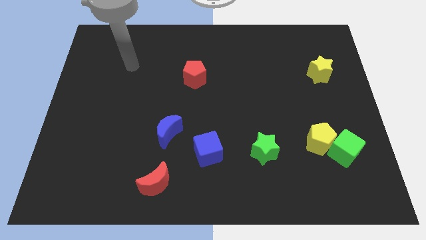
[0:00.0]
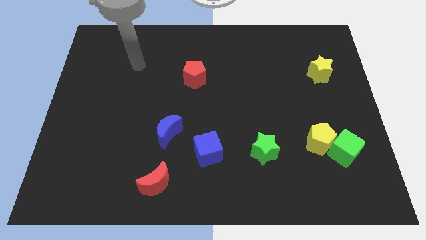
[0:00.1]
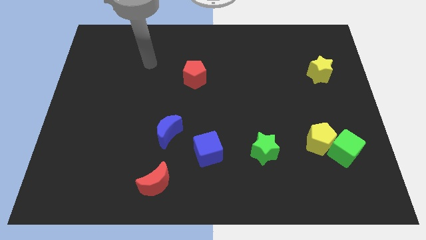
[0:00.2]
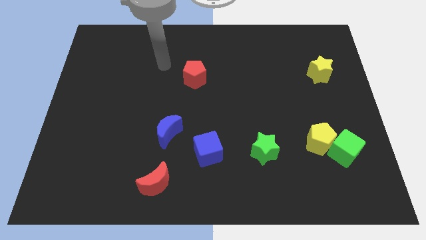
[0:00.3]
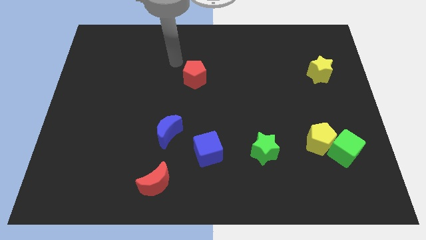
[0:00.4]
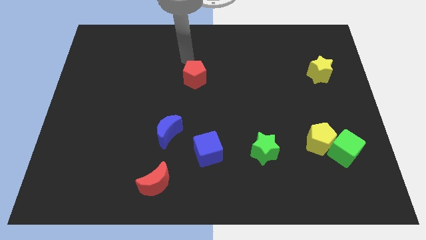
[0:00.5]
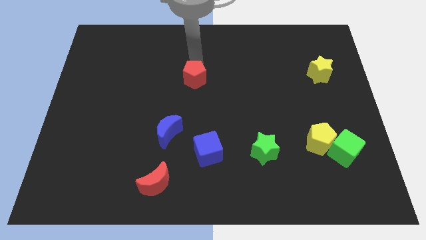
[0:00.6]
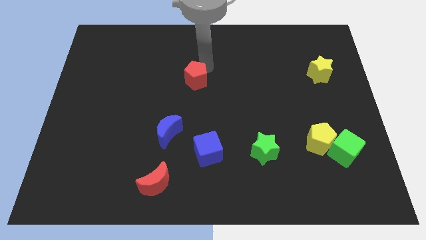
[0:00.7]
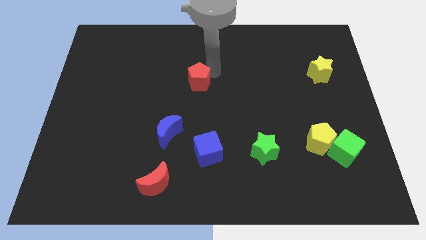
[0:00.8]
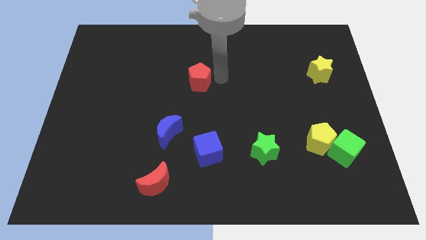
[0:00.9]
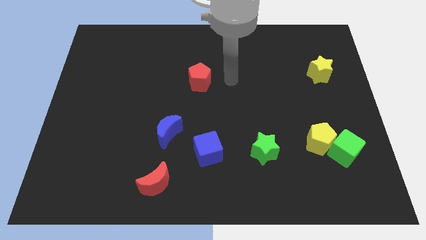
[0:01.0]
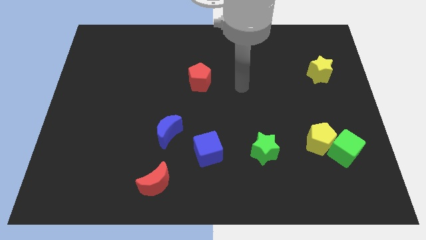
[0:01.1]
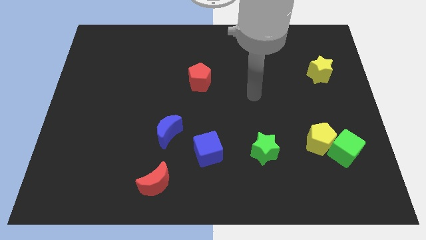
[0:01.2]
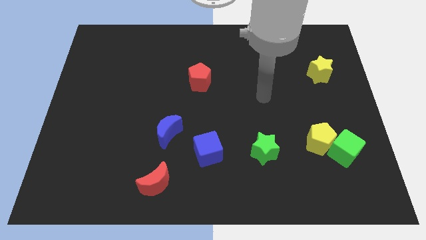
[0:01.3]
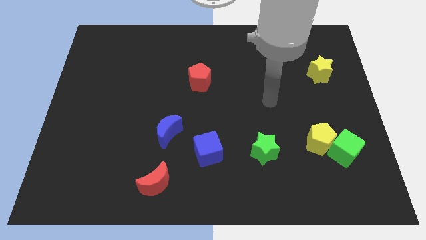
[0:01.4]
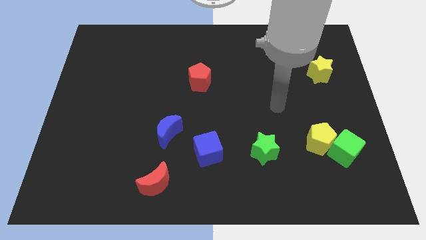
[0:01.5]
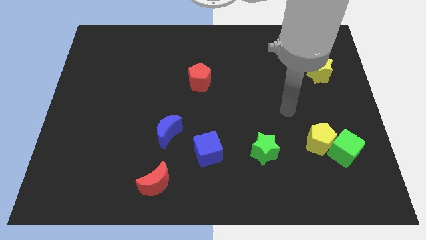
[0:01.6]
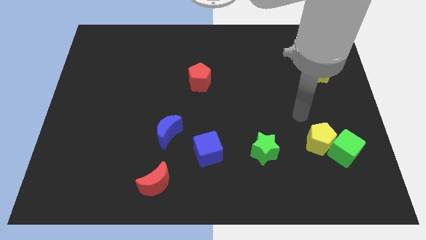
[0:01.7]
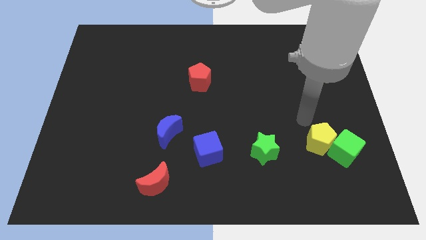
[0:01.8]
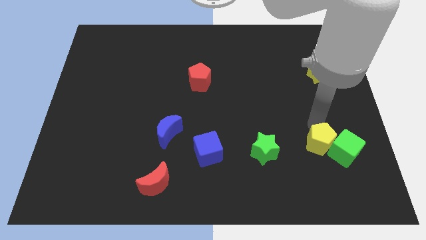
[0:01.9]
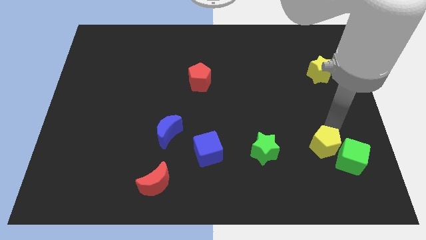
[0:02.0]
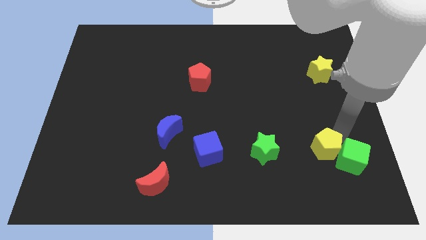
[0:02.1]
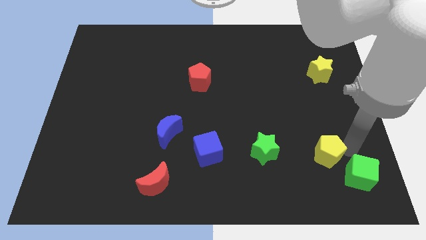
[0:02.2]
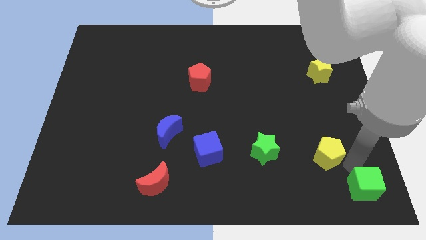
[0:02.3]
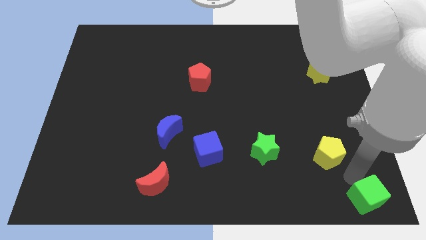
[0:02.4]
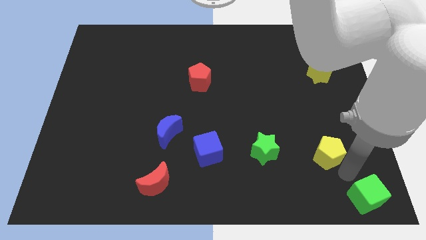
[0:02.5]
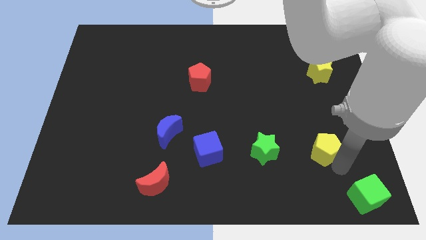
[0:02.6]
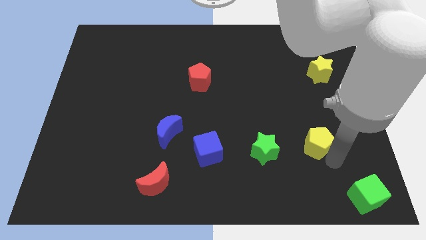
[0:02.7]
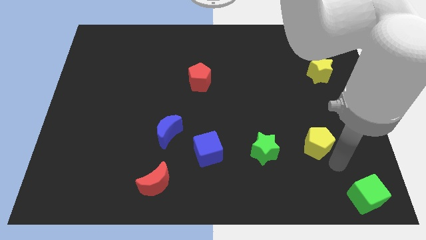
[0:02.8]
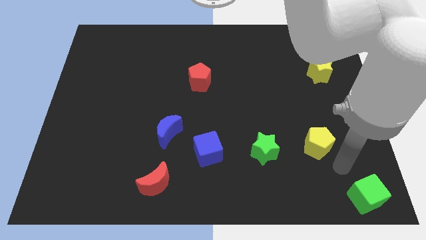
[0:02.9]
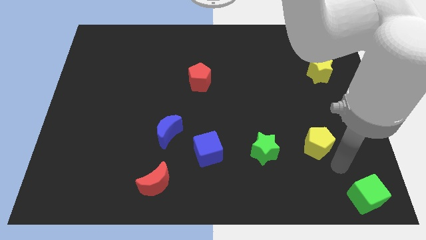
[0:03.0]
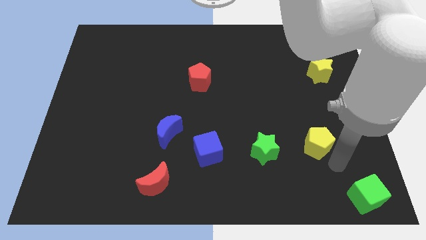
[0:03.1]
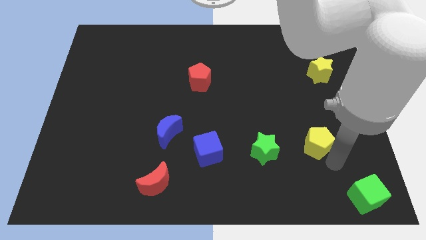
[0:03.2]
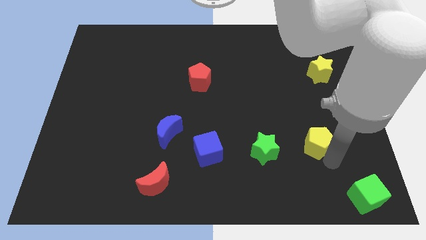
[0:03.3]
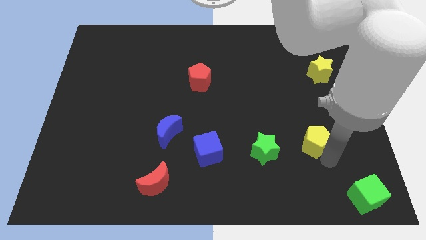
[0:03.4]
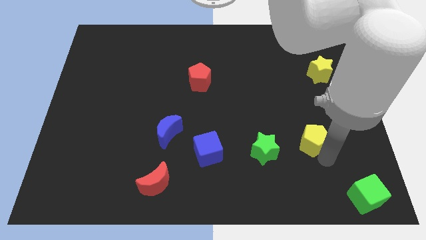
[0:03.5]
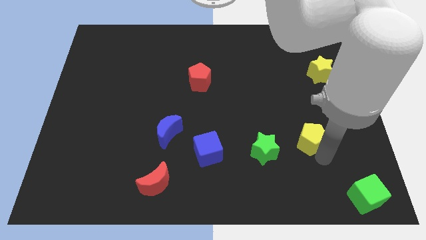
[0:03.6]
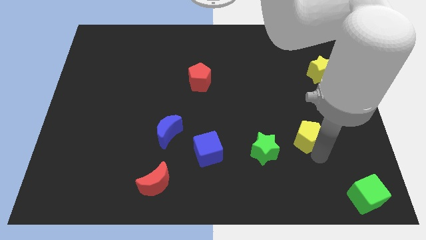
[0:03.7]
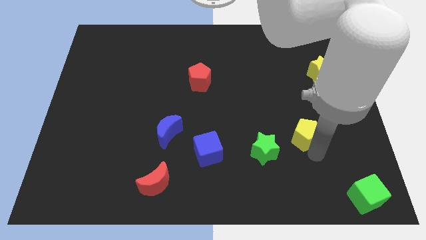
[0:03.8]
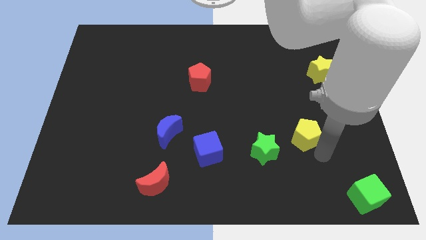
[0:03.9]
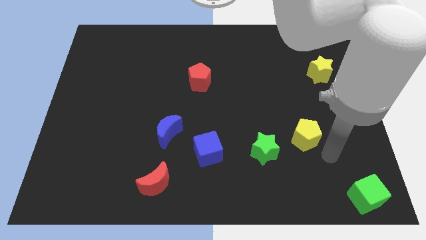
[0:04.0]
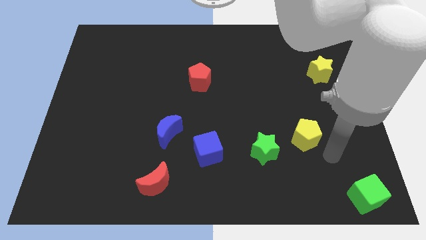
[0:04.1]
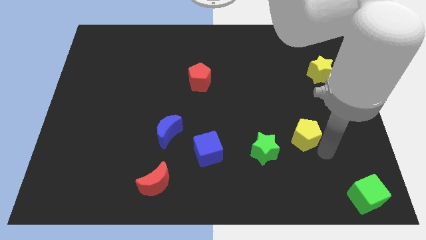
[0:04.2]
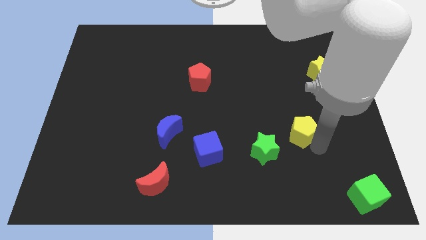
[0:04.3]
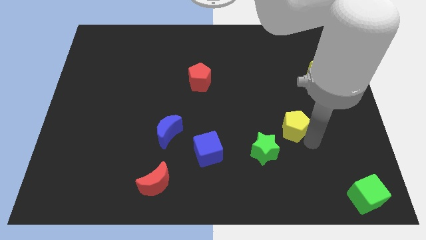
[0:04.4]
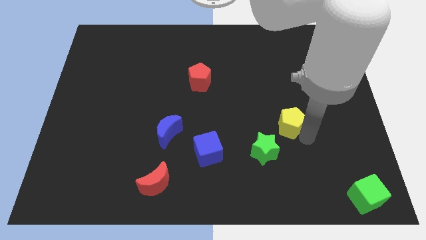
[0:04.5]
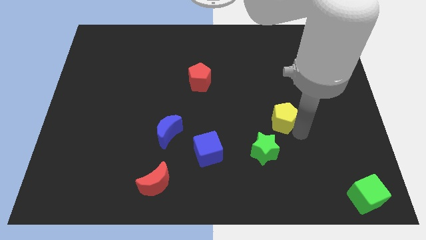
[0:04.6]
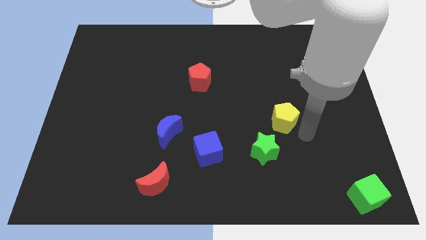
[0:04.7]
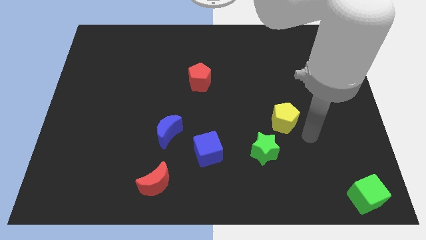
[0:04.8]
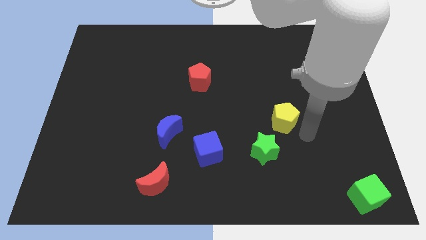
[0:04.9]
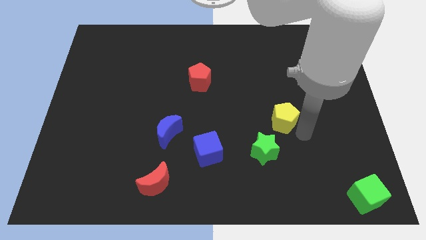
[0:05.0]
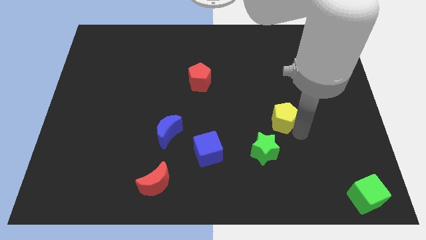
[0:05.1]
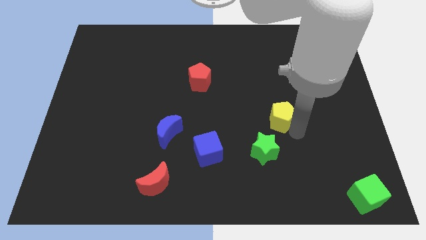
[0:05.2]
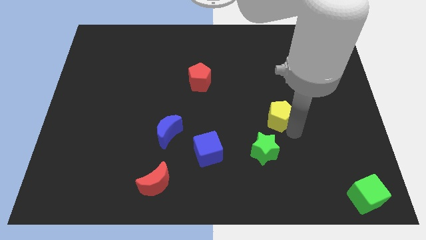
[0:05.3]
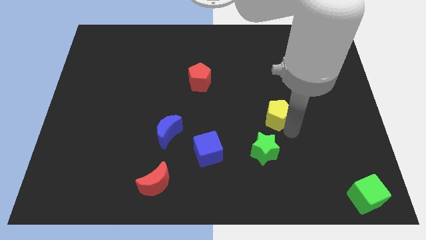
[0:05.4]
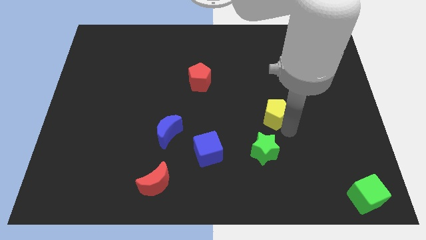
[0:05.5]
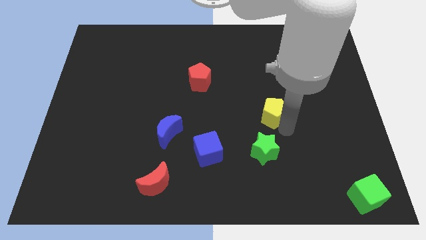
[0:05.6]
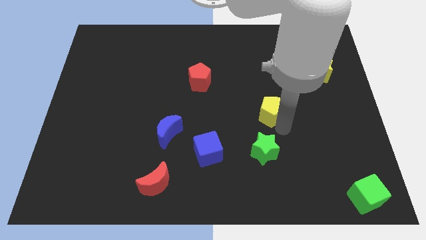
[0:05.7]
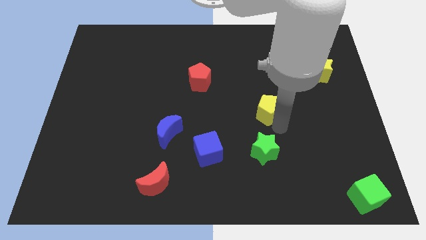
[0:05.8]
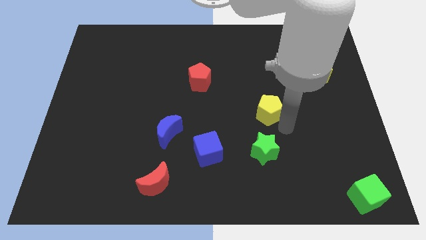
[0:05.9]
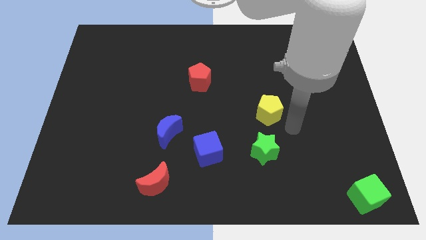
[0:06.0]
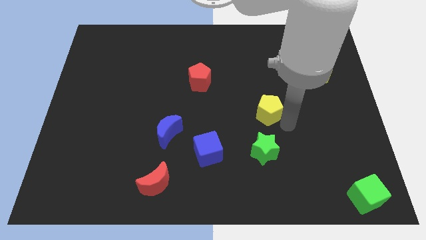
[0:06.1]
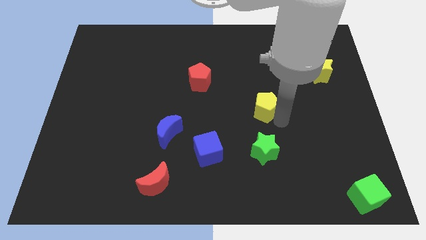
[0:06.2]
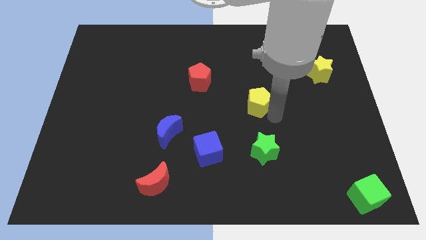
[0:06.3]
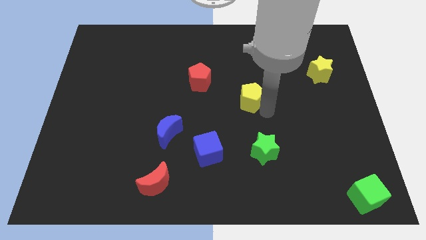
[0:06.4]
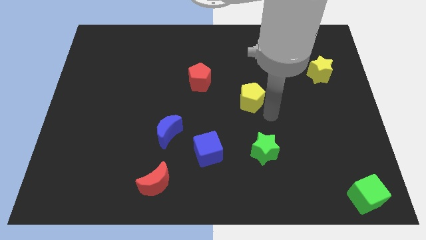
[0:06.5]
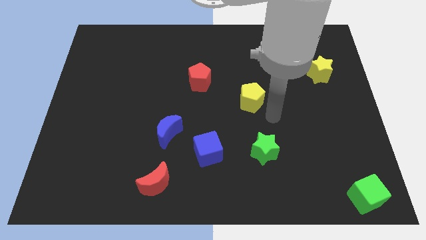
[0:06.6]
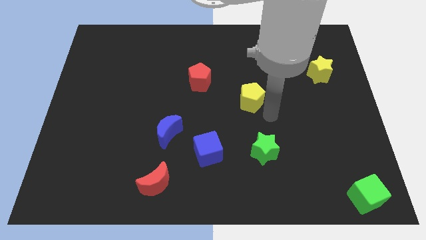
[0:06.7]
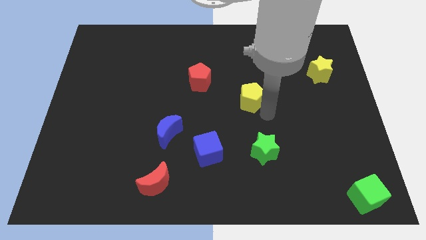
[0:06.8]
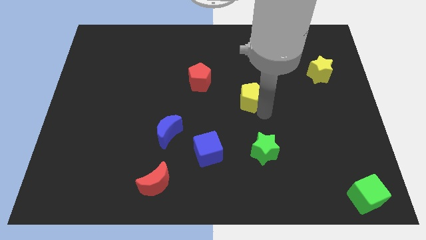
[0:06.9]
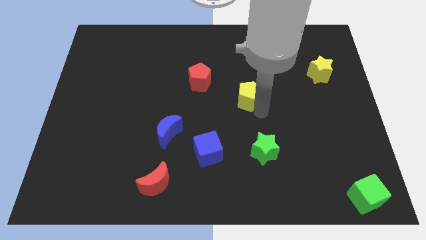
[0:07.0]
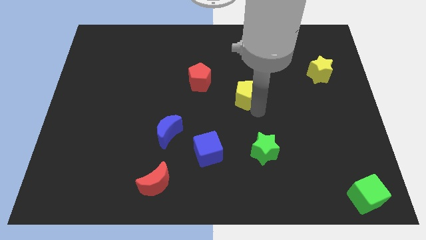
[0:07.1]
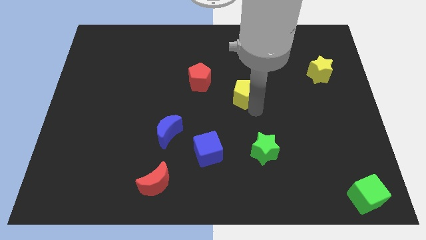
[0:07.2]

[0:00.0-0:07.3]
move the yellow pentagon up and then to the left

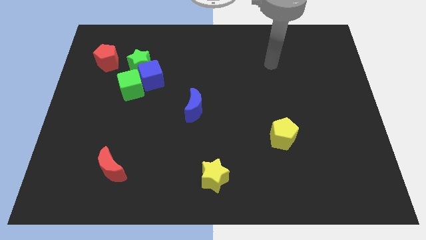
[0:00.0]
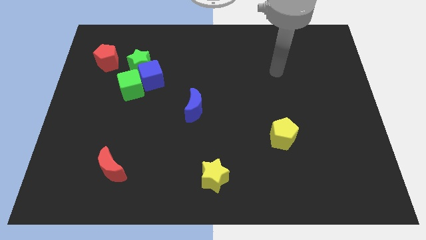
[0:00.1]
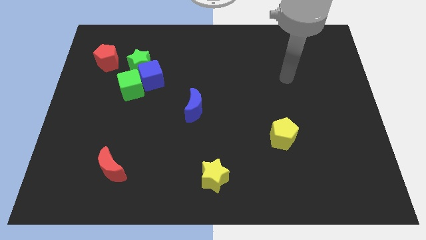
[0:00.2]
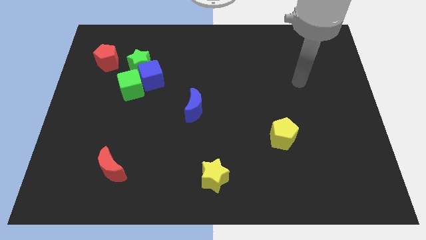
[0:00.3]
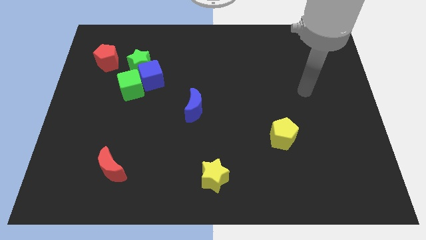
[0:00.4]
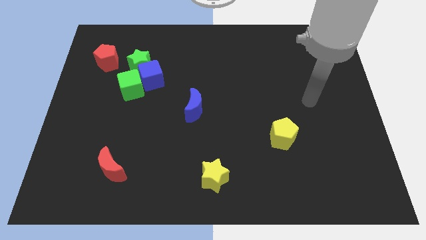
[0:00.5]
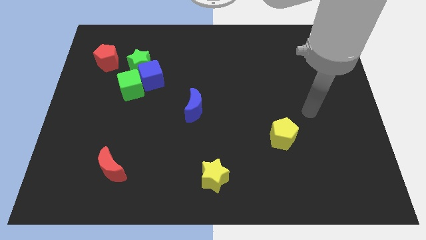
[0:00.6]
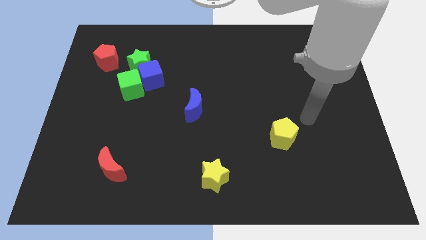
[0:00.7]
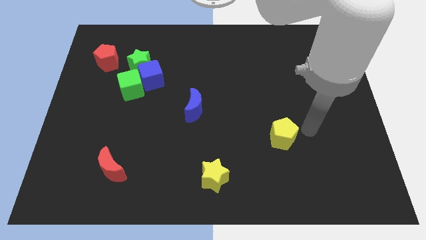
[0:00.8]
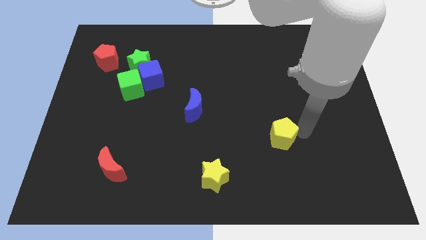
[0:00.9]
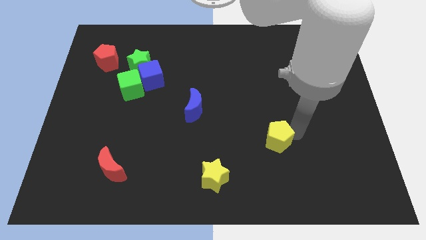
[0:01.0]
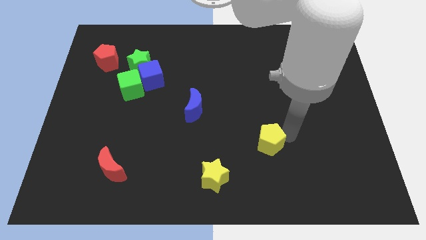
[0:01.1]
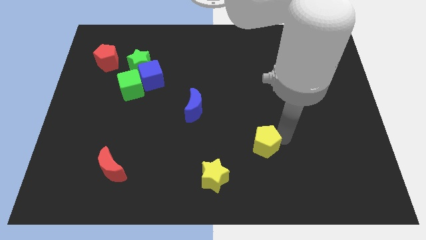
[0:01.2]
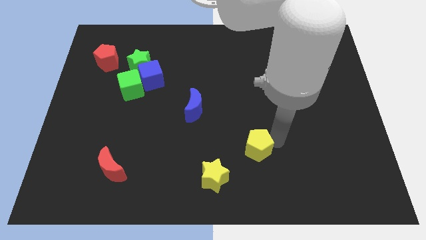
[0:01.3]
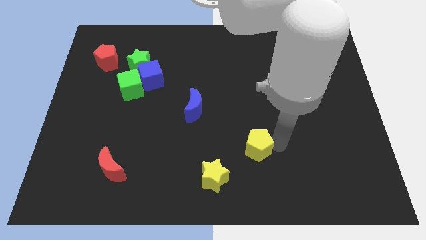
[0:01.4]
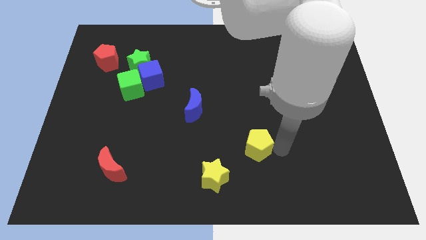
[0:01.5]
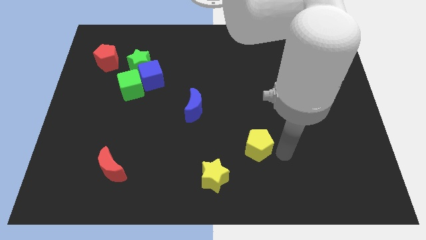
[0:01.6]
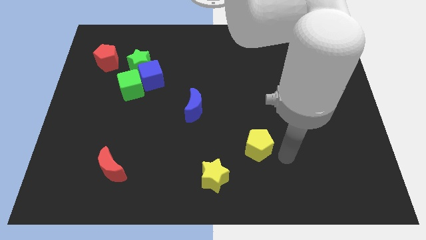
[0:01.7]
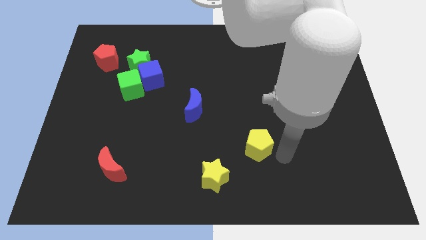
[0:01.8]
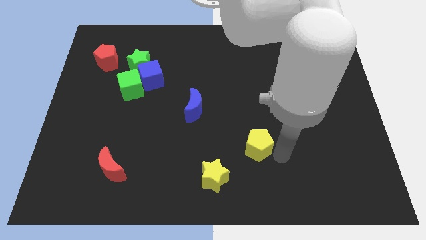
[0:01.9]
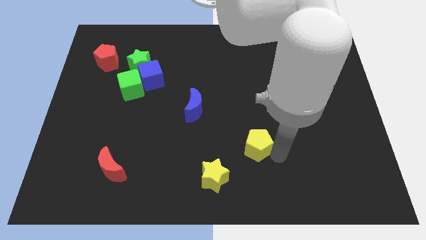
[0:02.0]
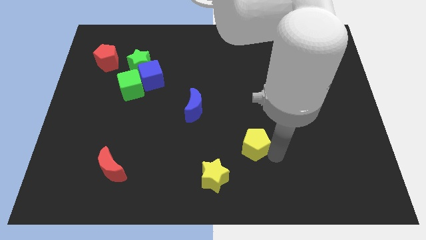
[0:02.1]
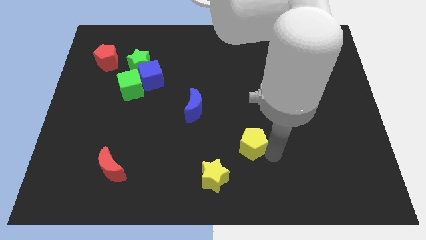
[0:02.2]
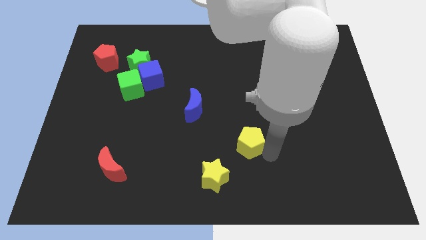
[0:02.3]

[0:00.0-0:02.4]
slightly move the yellow pentagon left
